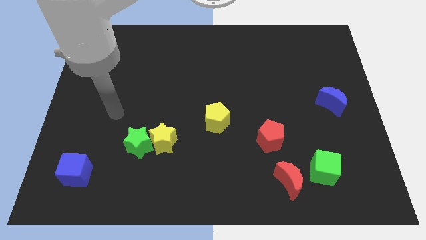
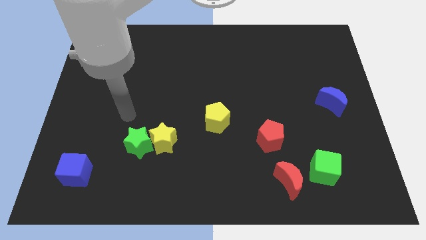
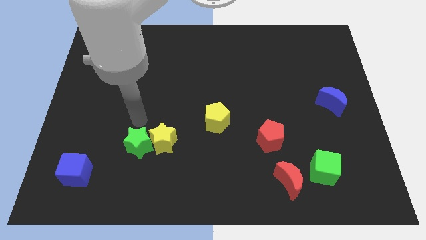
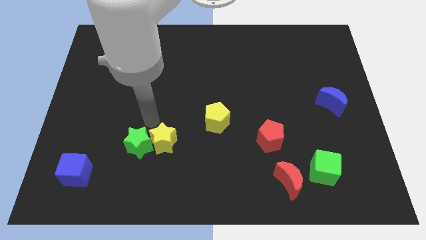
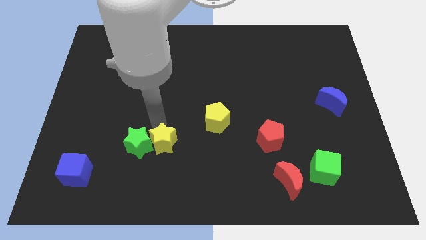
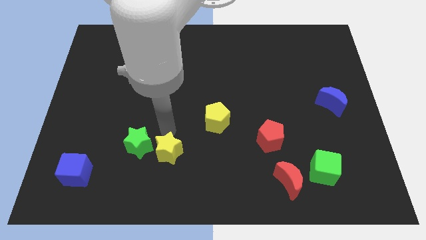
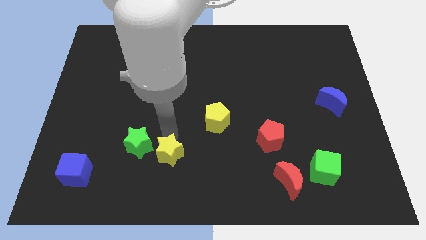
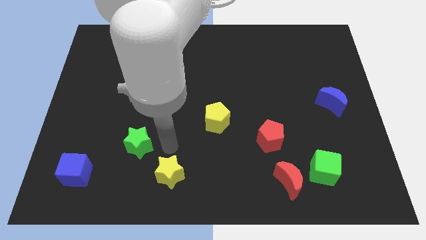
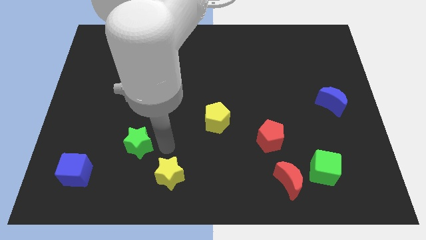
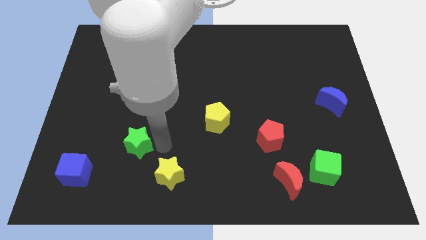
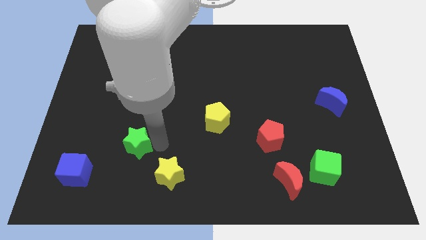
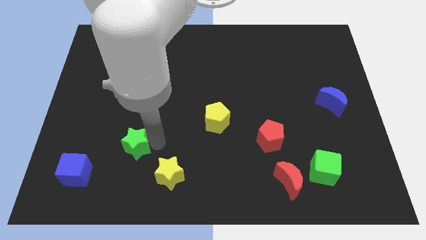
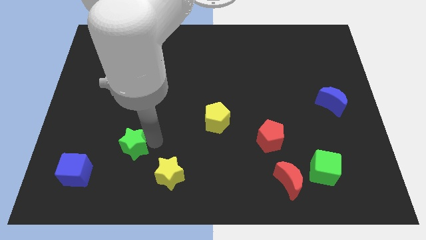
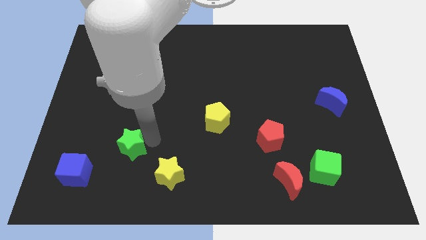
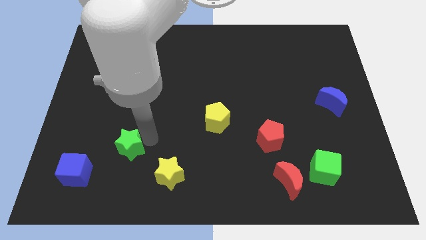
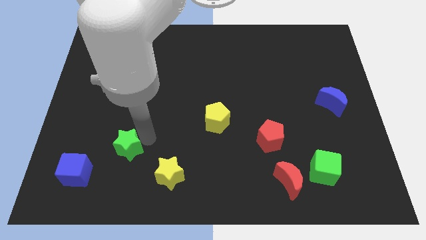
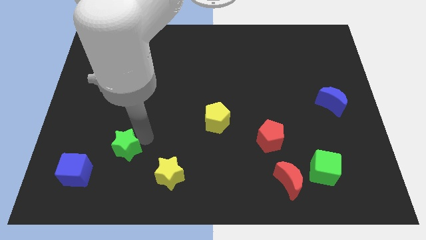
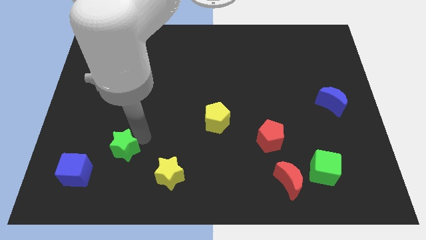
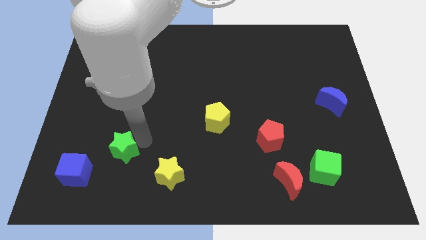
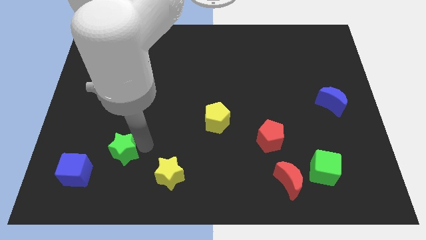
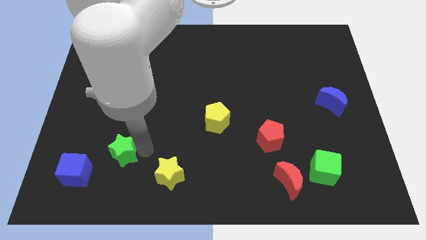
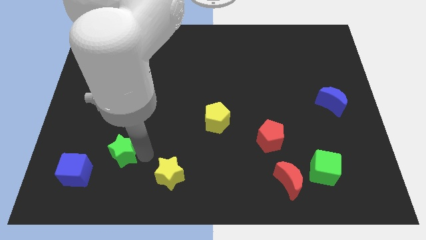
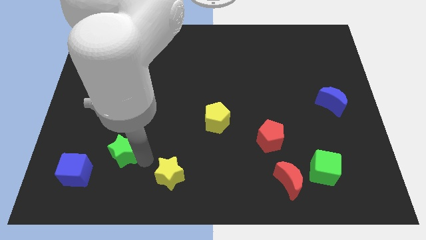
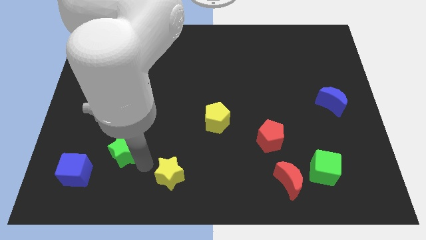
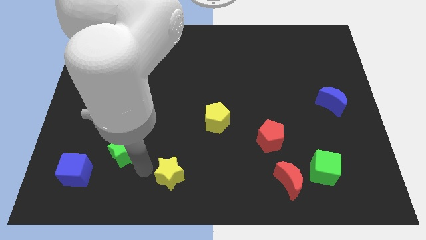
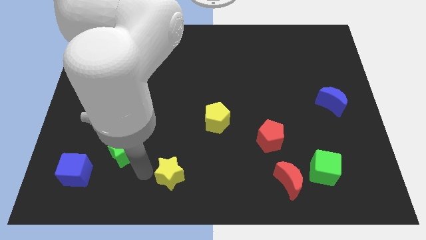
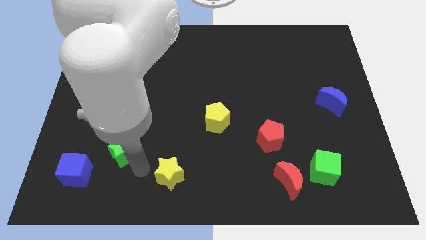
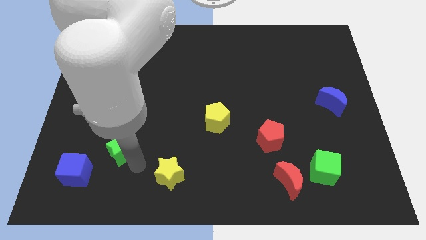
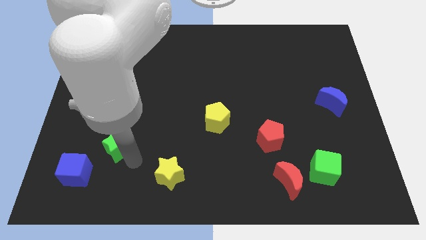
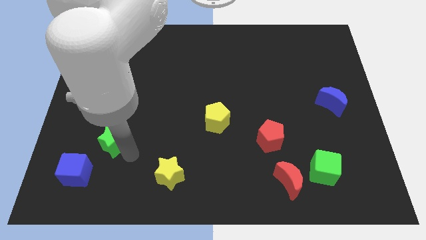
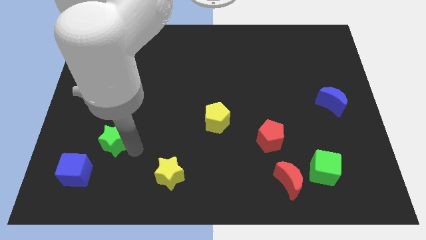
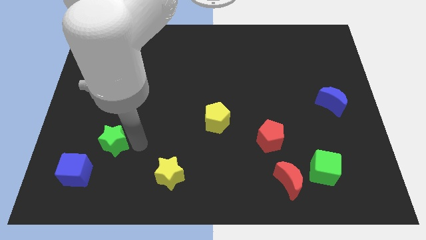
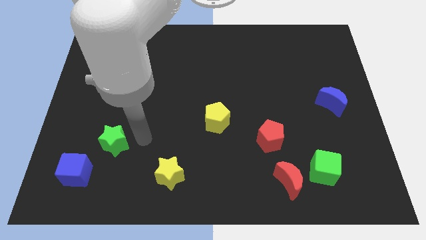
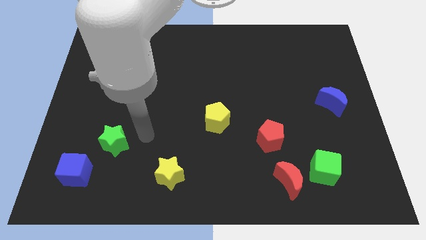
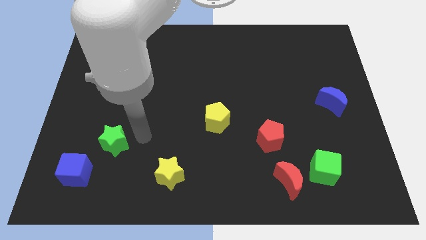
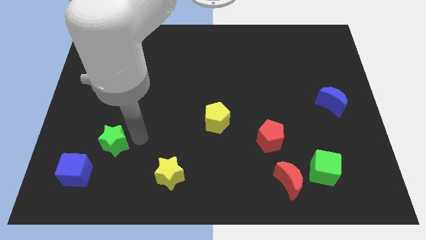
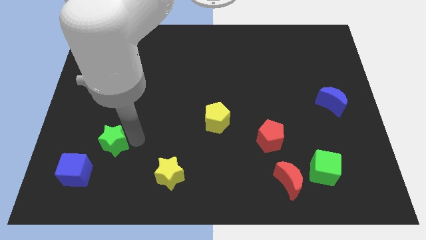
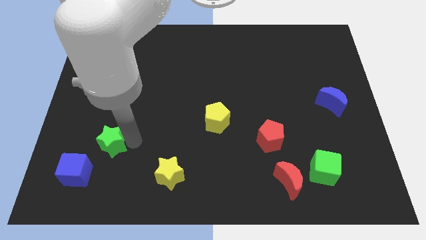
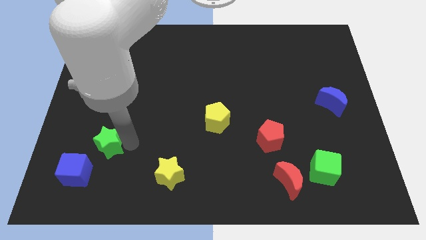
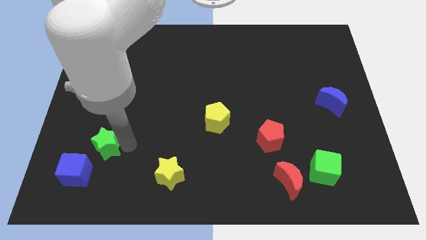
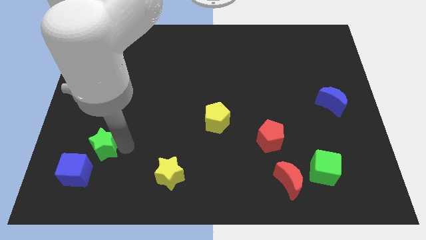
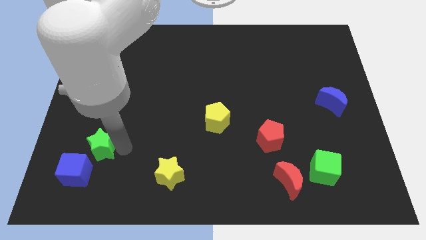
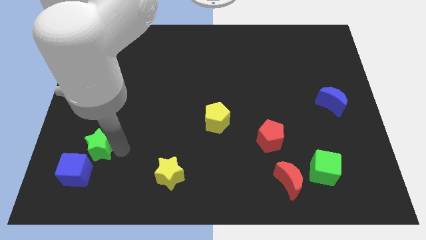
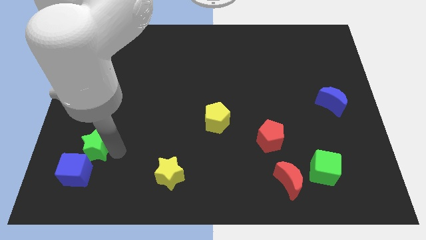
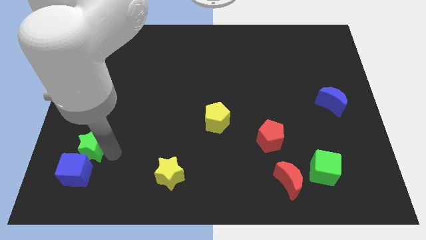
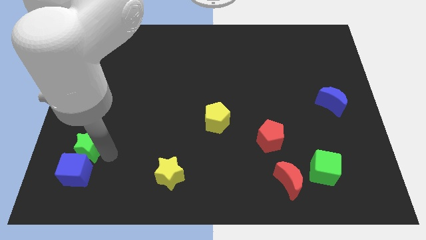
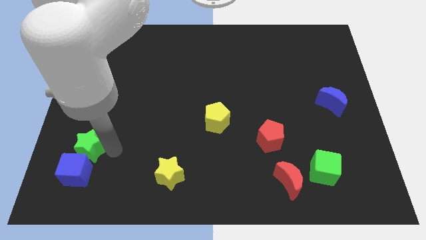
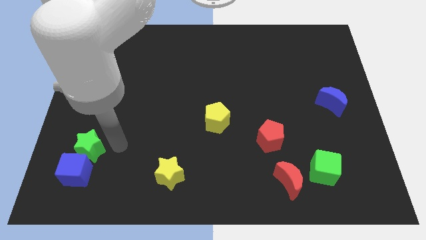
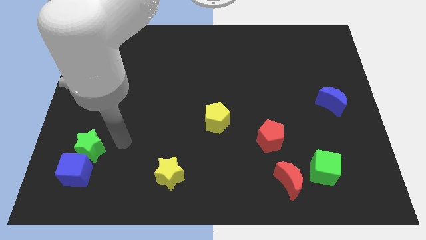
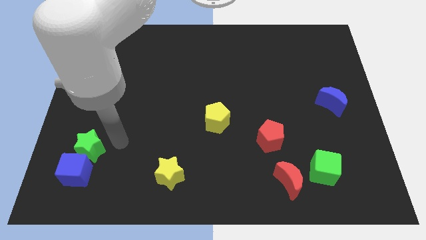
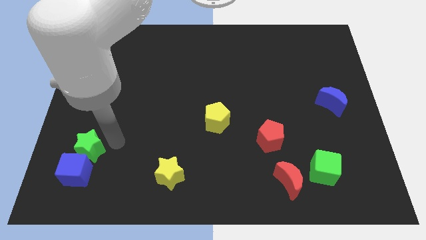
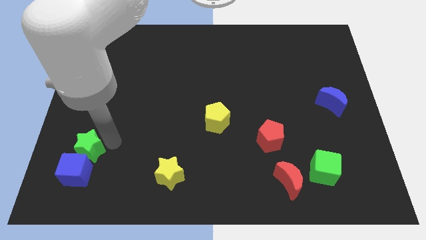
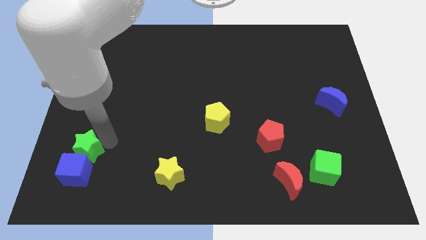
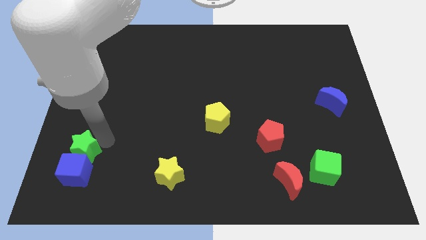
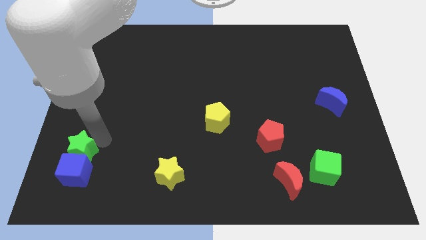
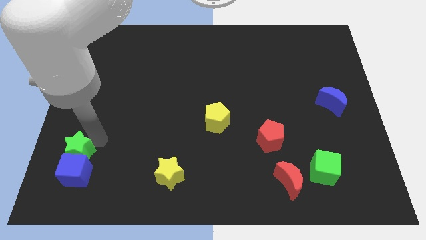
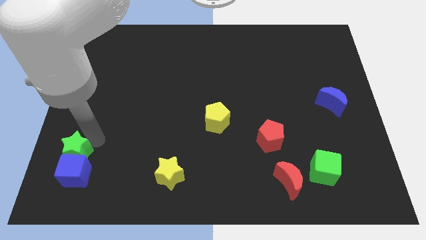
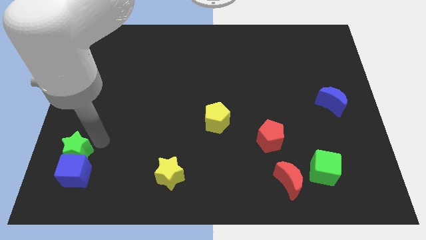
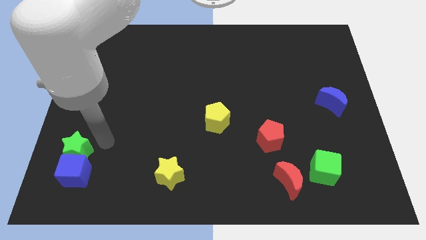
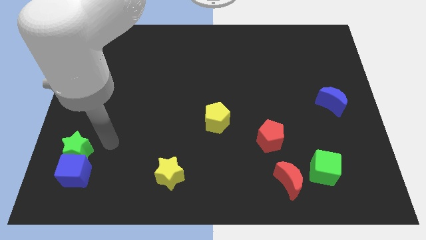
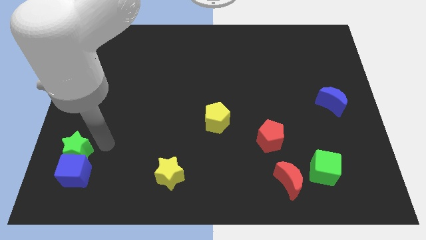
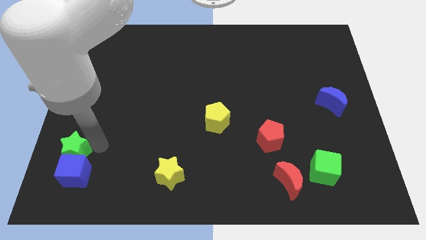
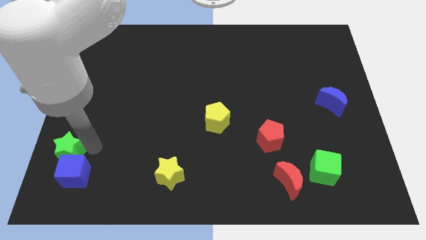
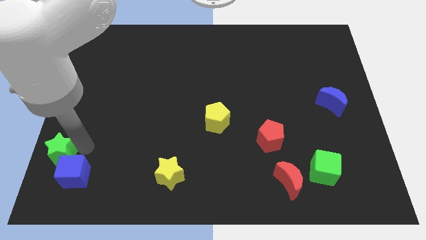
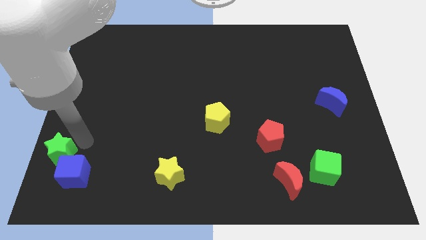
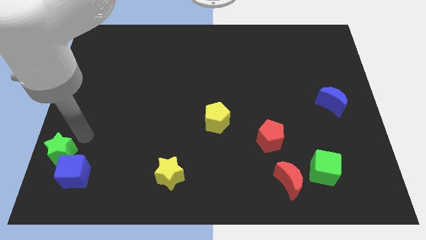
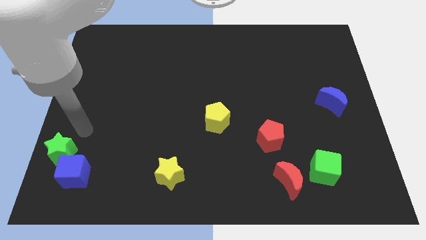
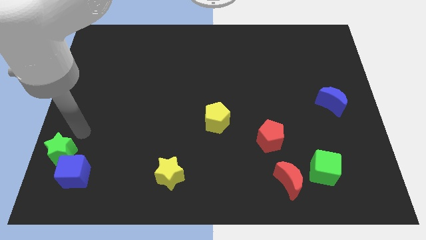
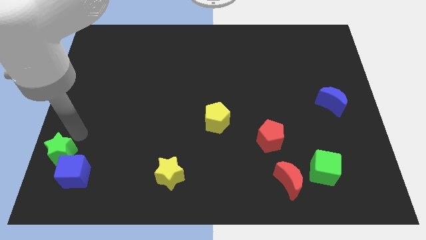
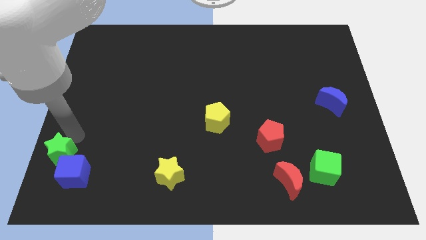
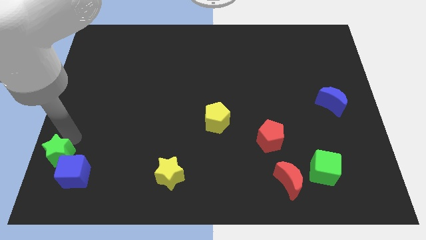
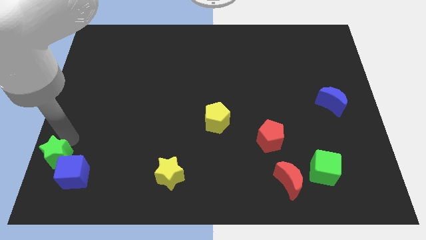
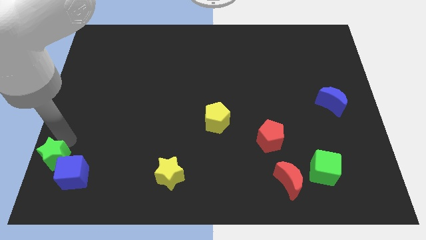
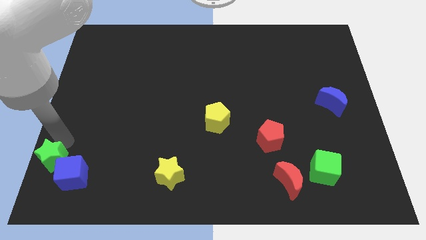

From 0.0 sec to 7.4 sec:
move the green star to the bottom left corner

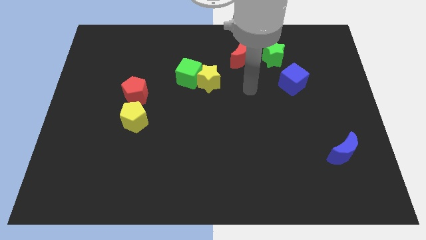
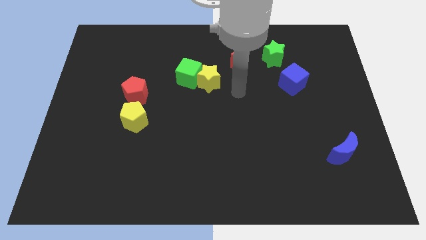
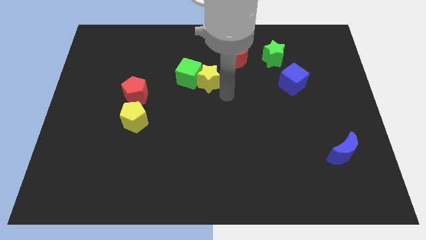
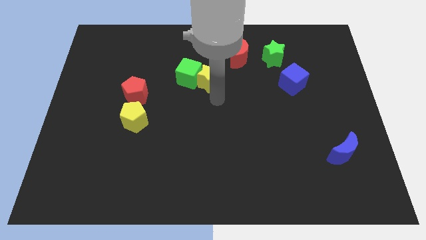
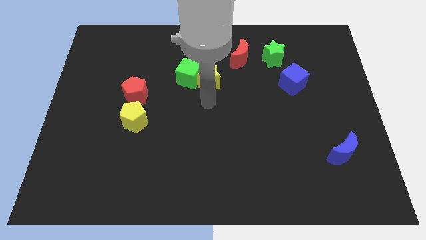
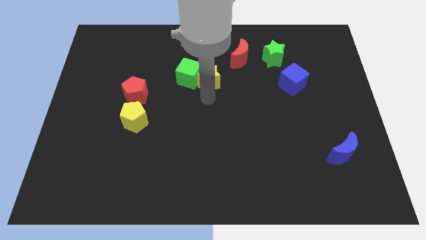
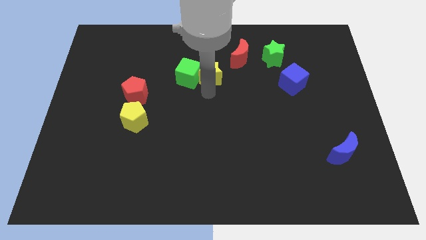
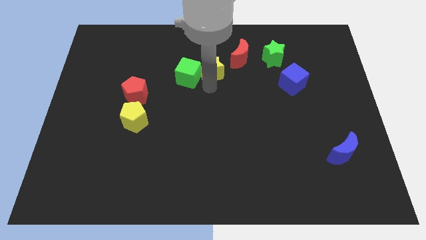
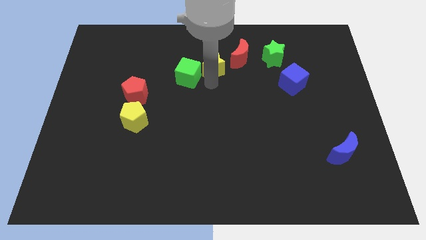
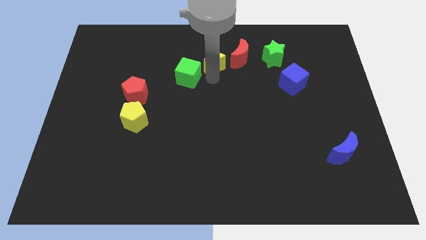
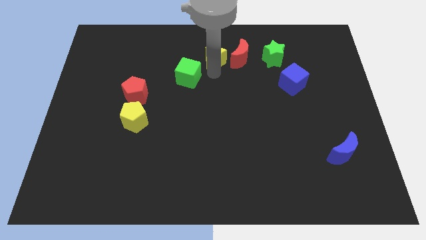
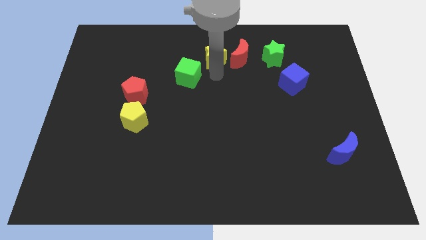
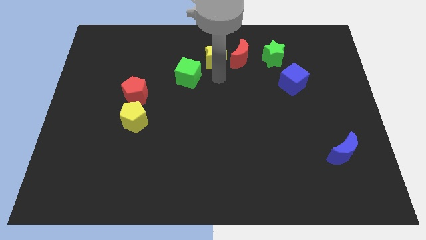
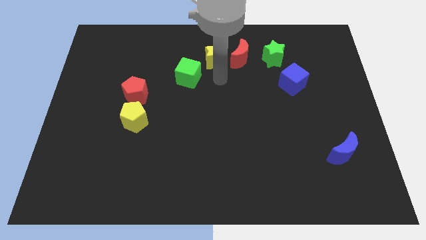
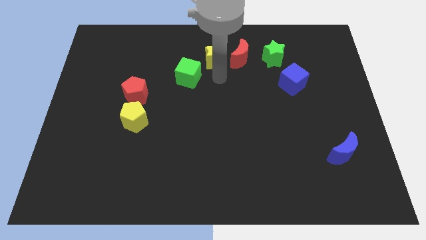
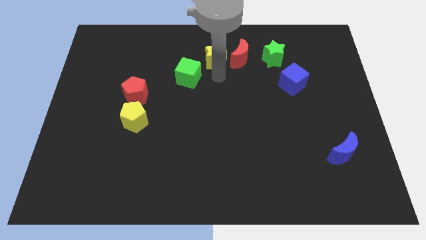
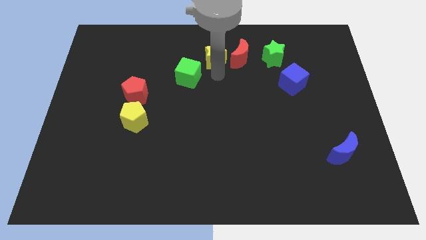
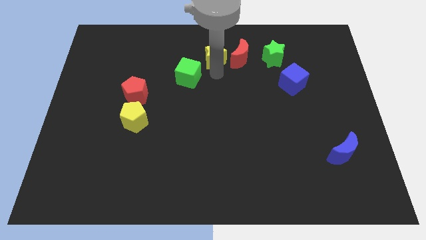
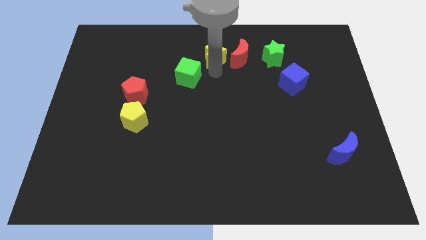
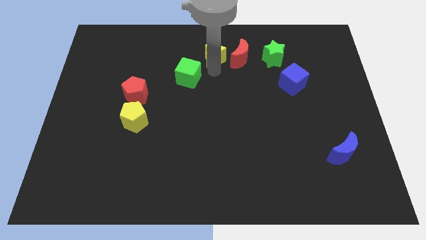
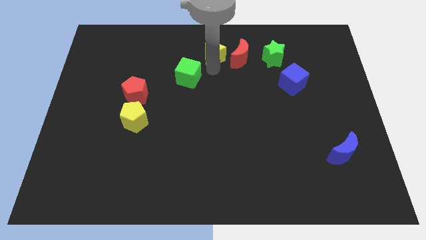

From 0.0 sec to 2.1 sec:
push the yellow star to the top
